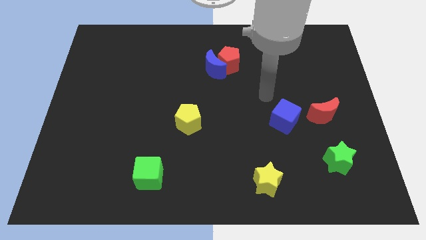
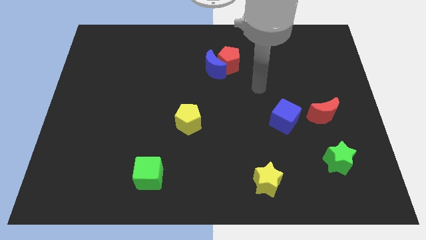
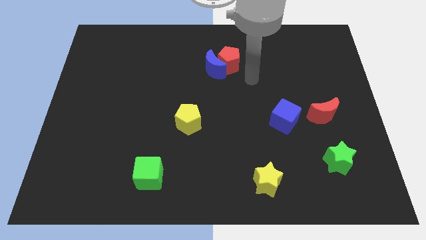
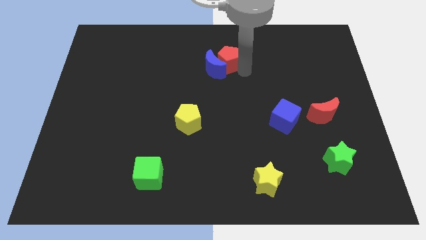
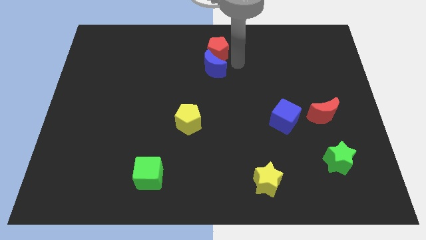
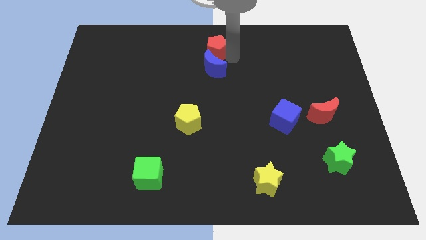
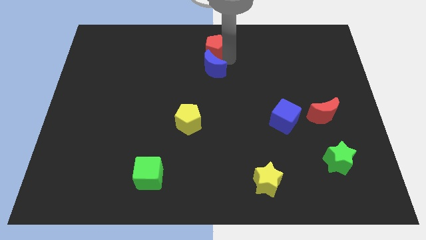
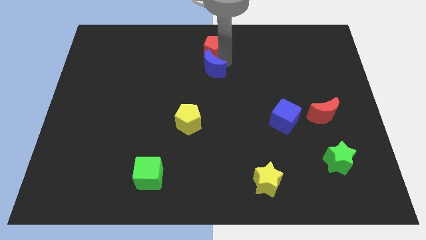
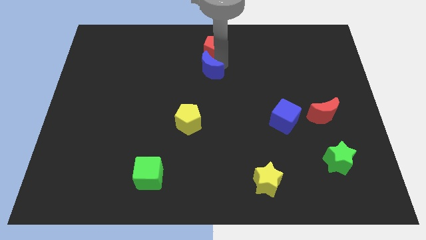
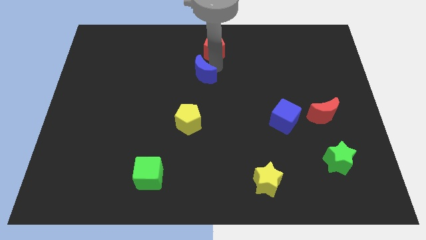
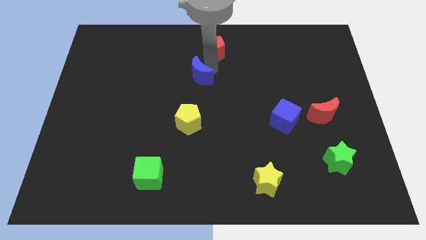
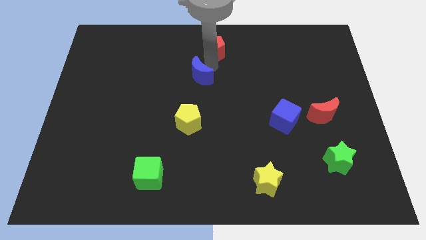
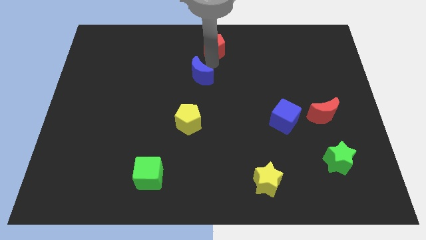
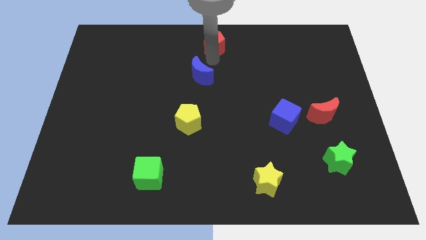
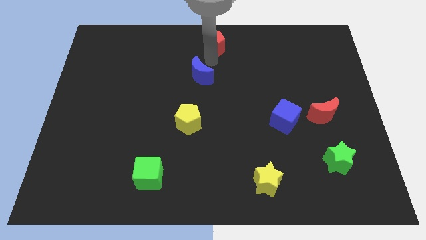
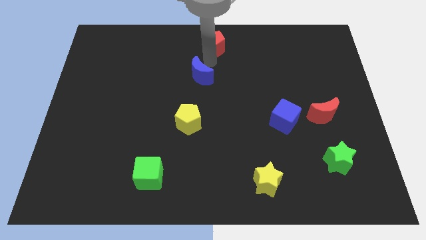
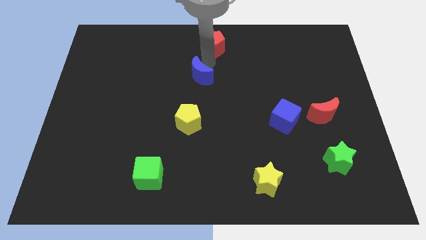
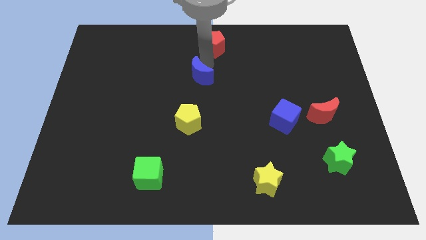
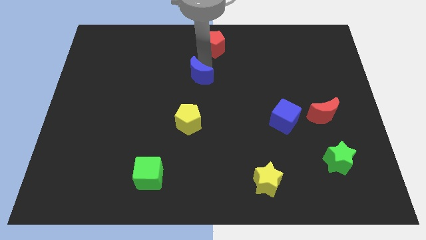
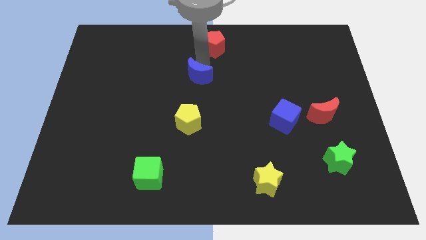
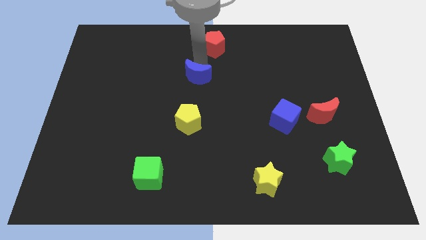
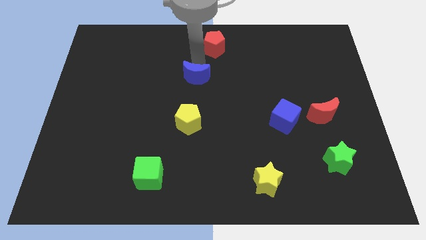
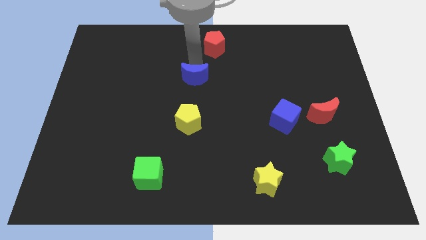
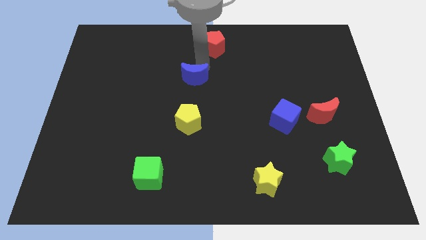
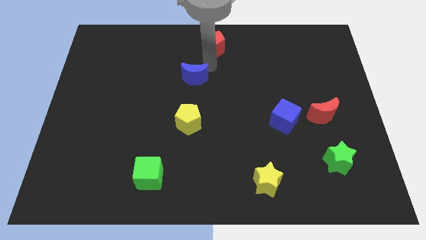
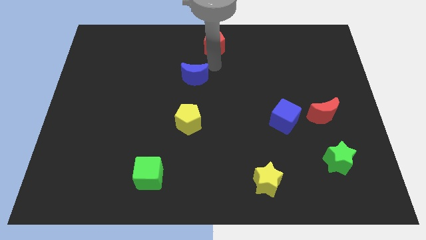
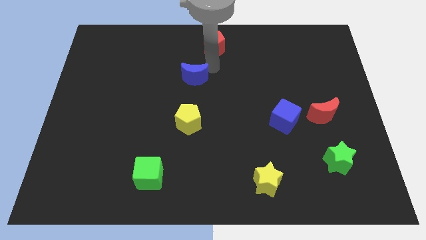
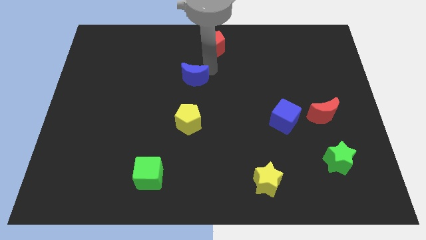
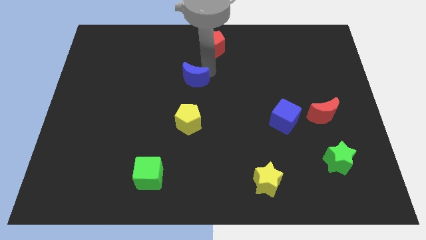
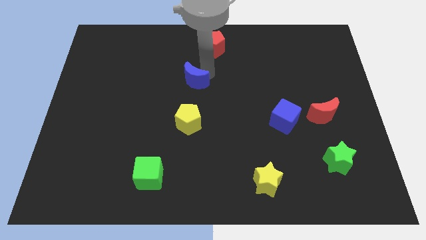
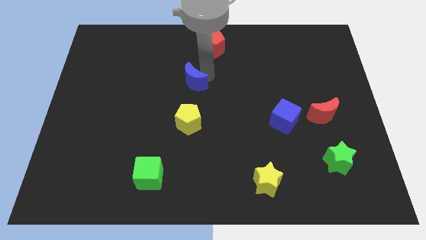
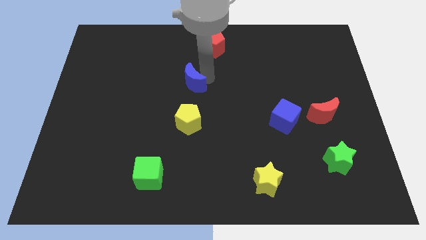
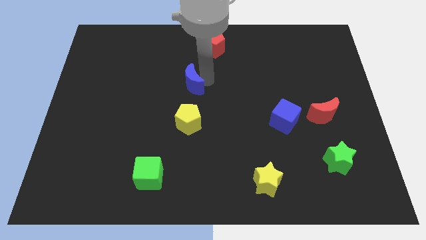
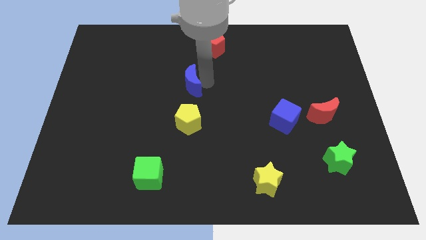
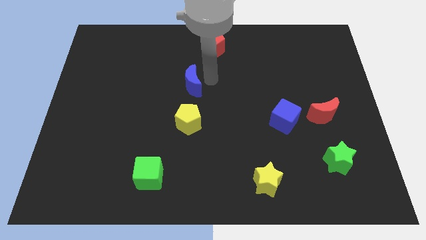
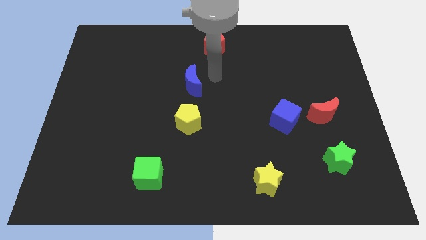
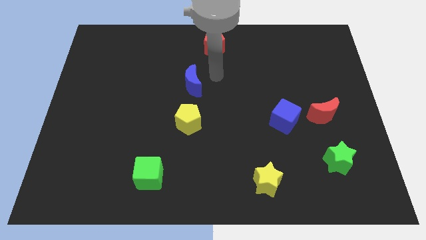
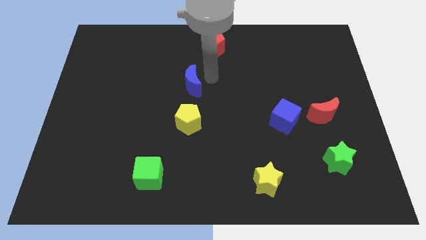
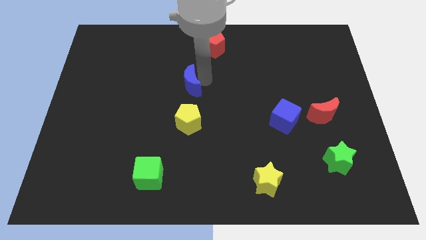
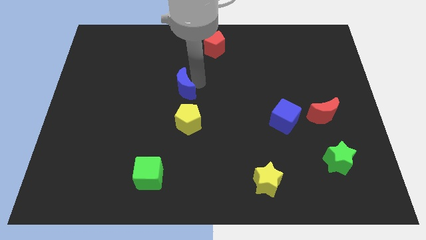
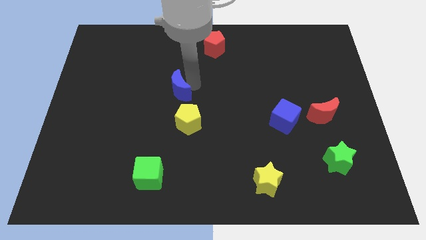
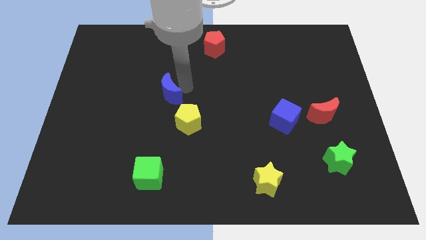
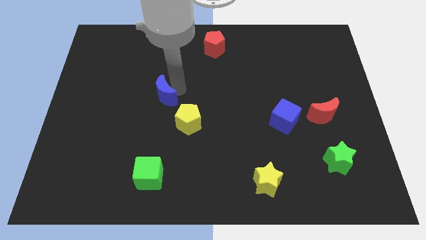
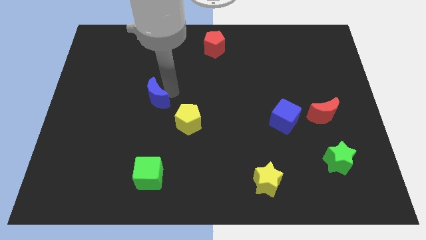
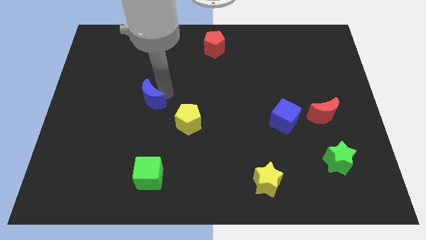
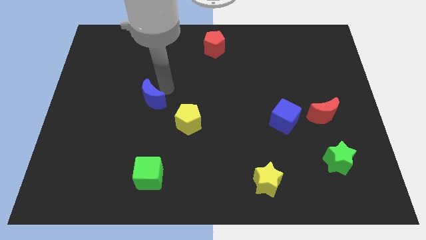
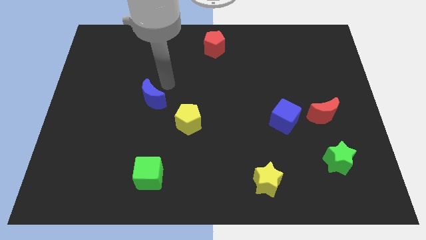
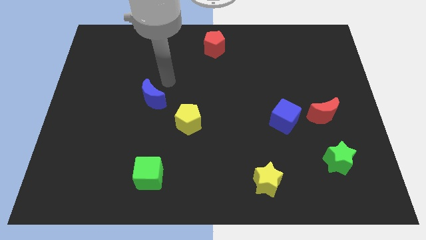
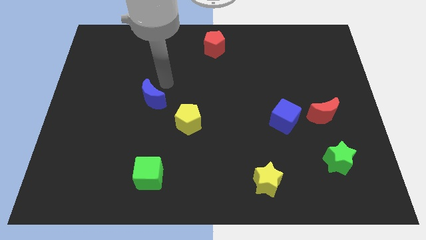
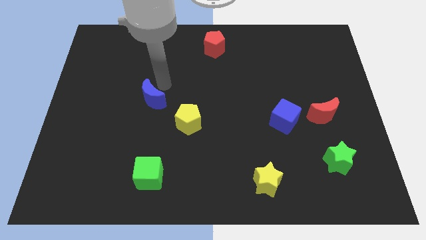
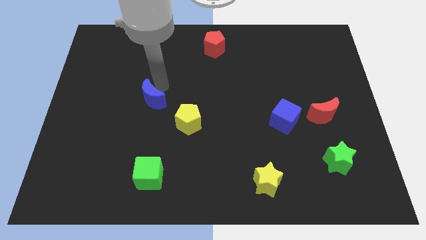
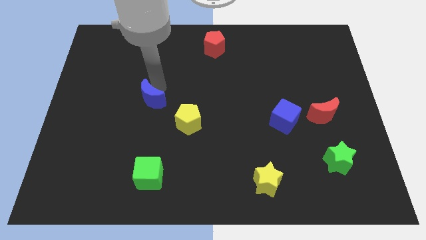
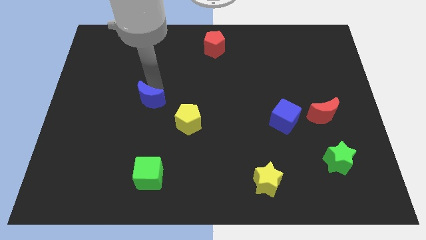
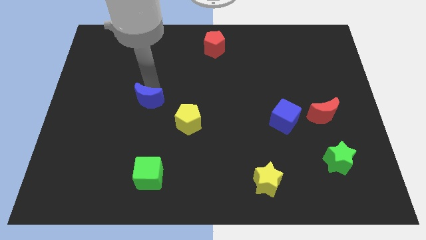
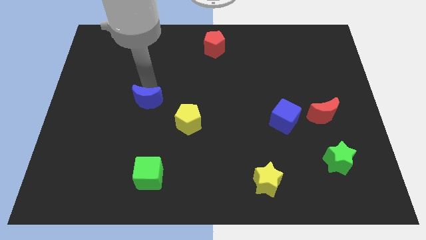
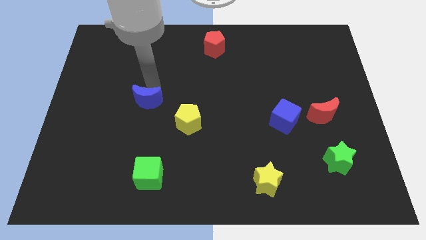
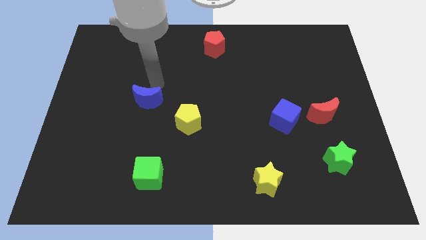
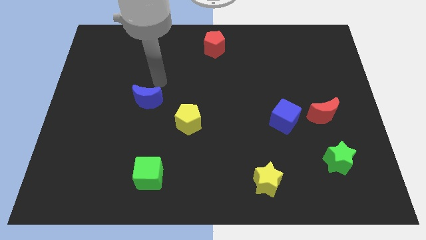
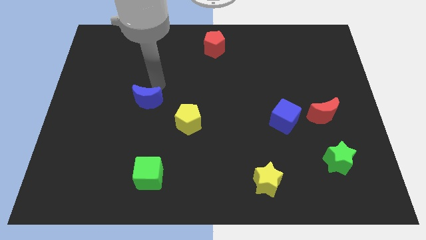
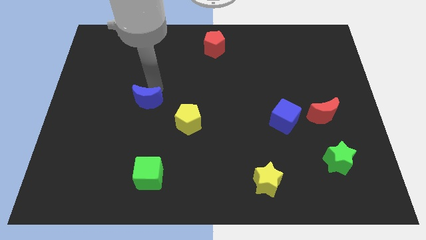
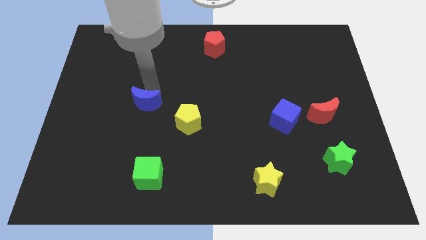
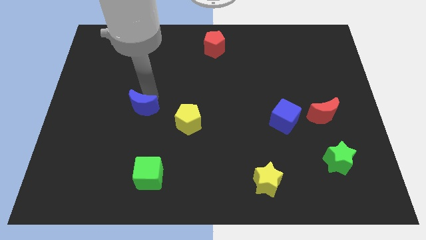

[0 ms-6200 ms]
slide the blue moon downwards and then to the left

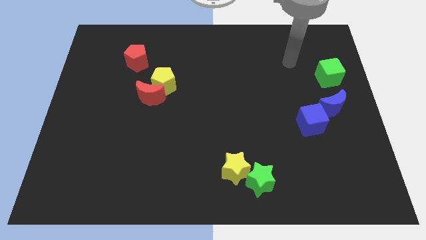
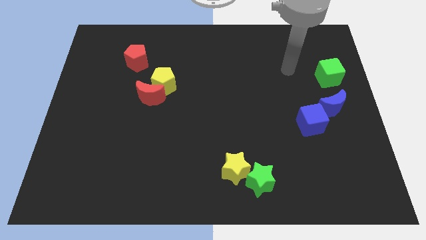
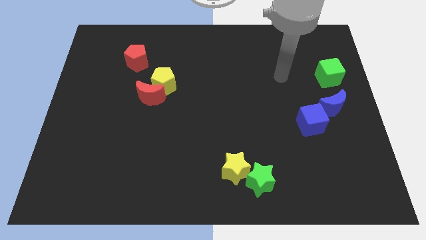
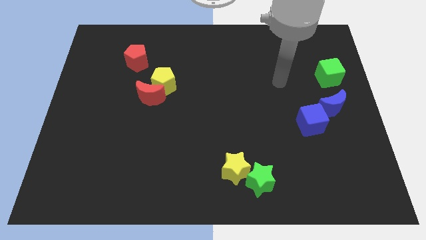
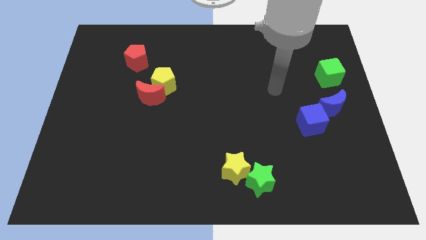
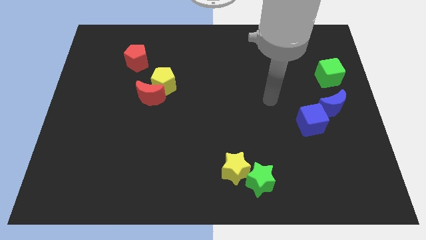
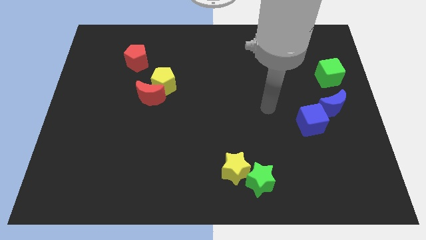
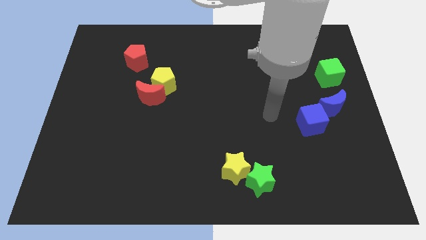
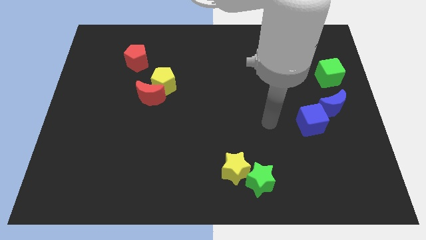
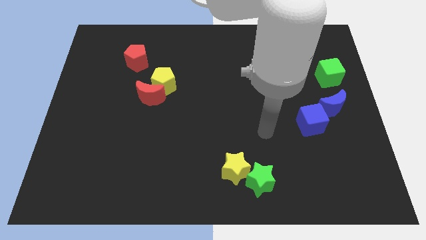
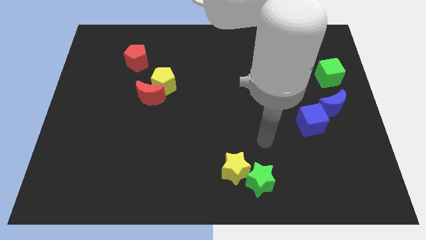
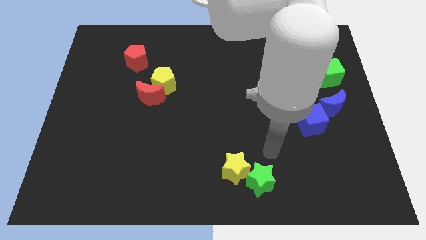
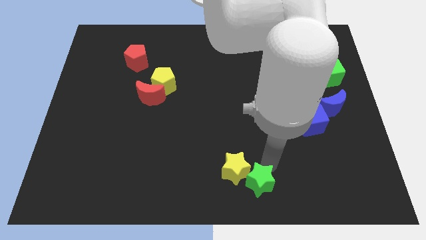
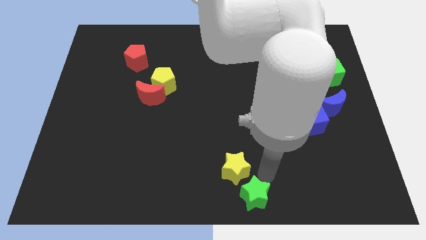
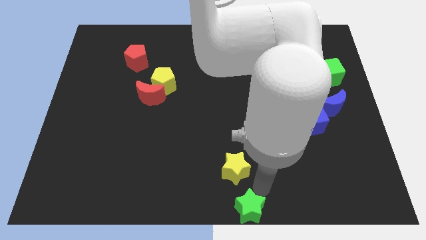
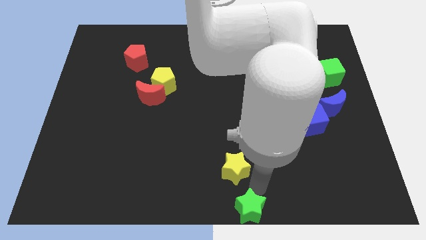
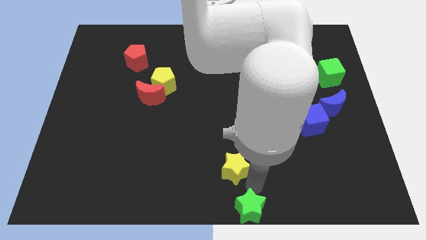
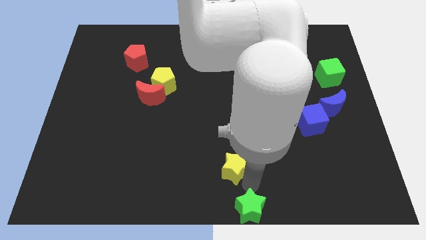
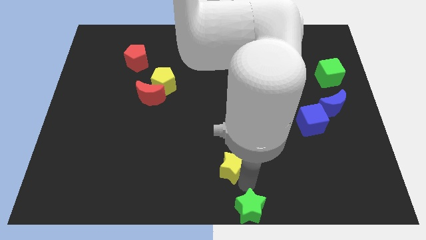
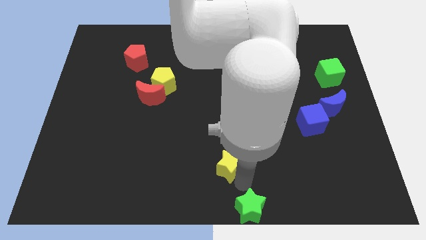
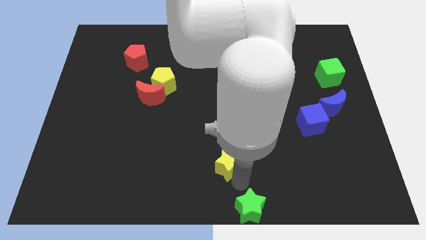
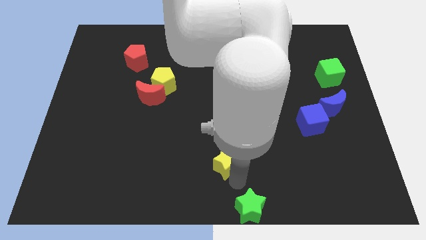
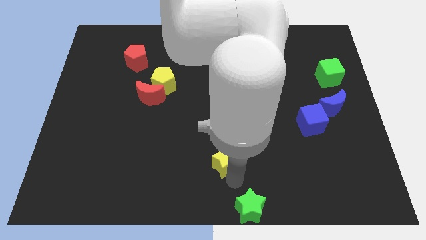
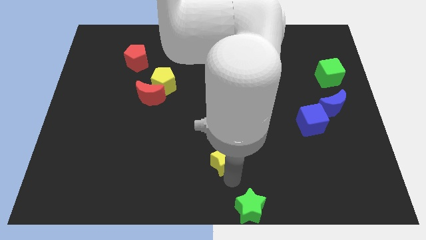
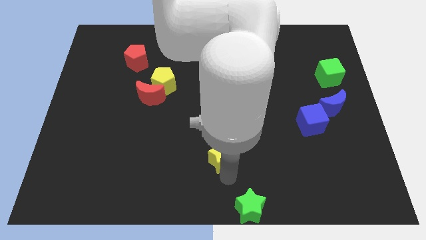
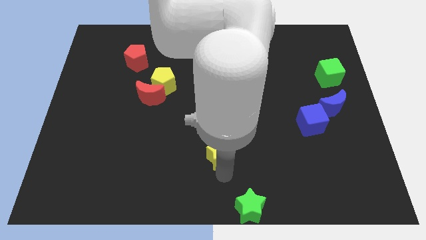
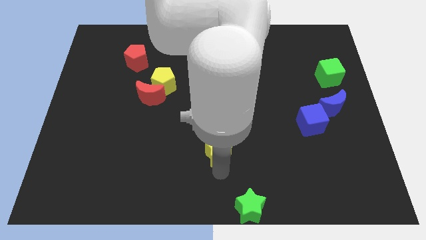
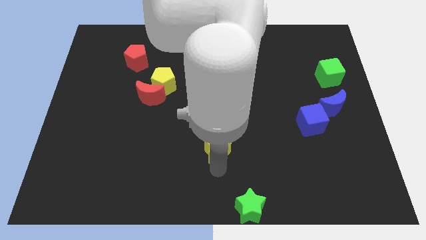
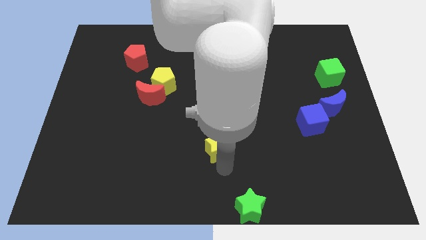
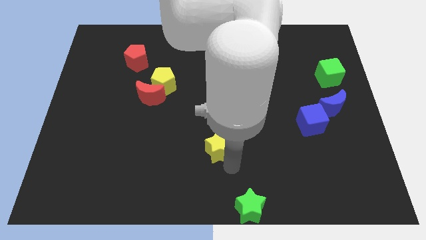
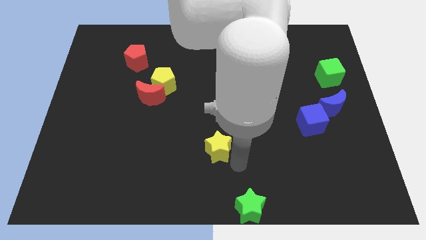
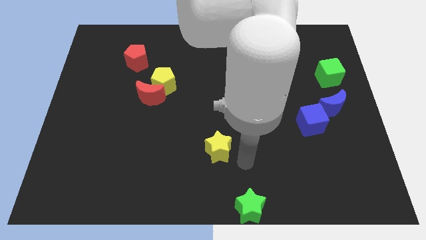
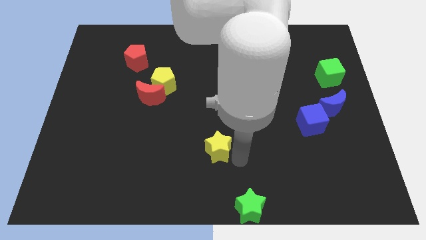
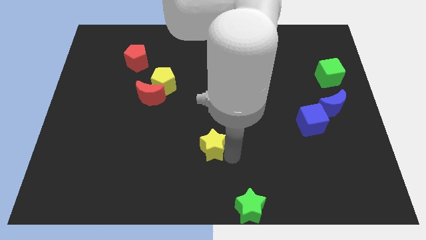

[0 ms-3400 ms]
move the yellow star a little bit upwards and to the left diagonally
